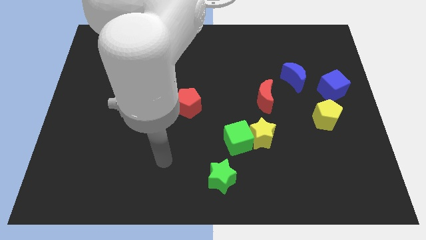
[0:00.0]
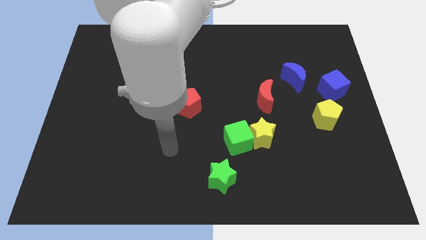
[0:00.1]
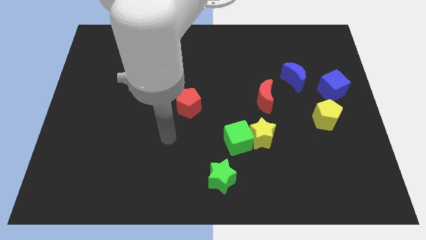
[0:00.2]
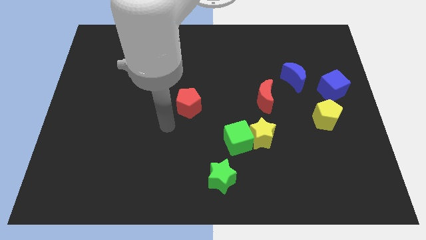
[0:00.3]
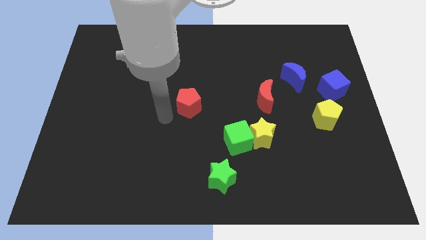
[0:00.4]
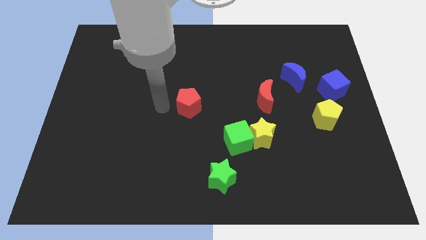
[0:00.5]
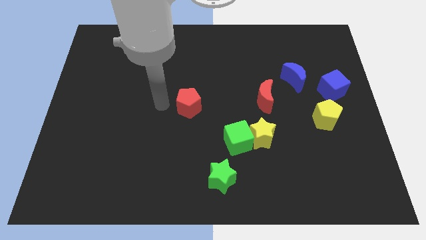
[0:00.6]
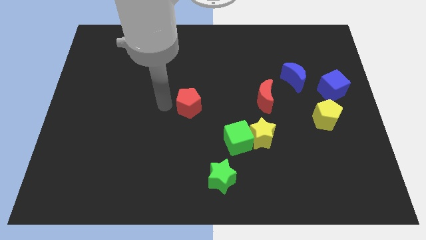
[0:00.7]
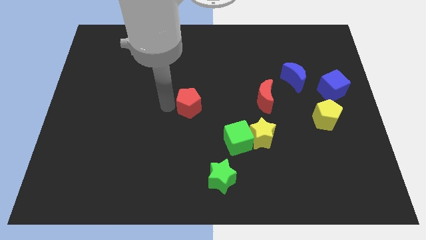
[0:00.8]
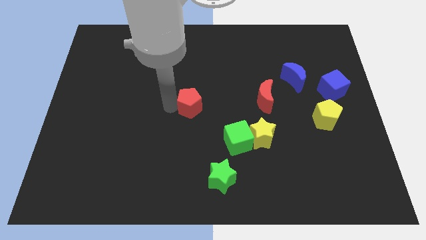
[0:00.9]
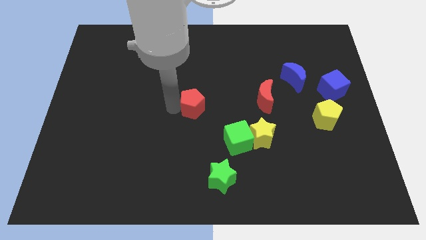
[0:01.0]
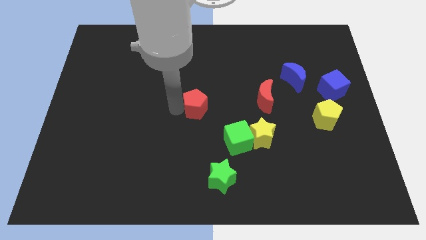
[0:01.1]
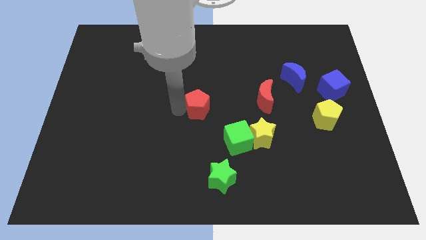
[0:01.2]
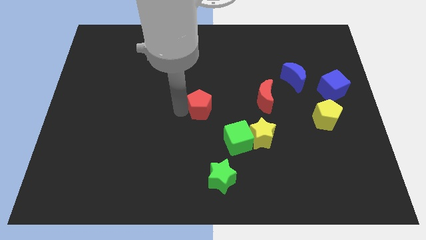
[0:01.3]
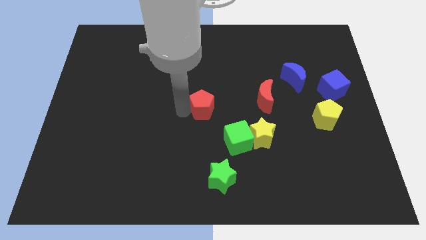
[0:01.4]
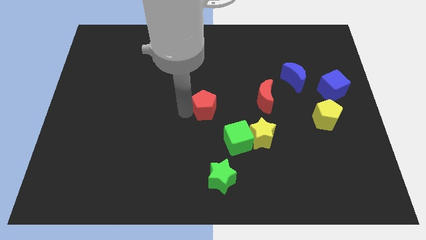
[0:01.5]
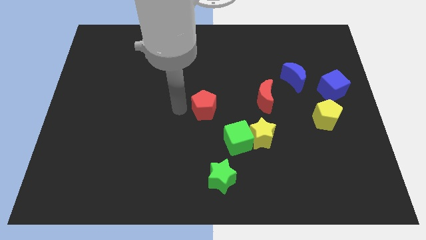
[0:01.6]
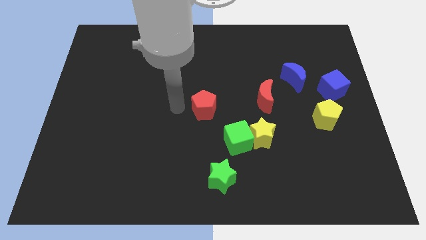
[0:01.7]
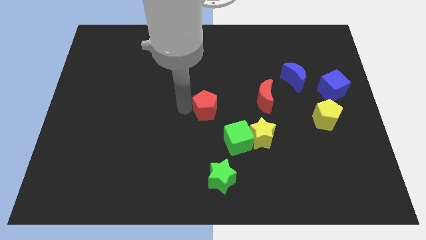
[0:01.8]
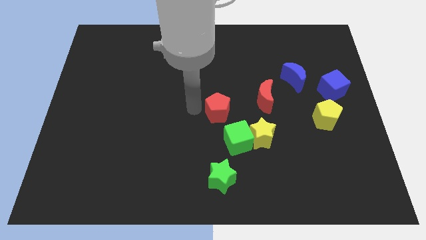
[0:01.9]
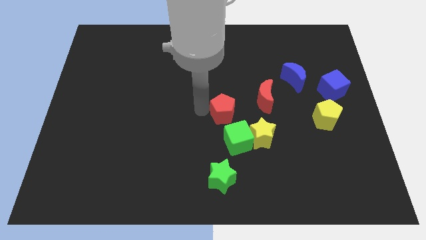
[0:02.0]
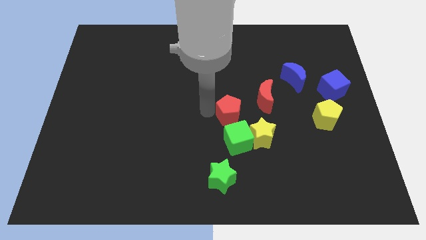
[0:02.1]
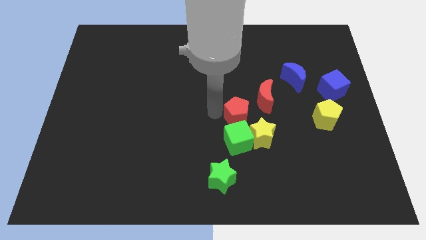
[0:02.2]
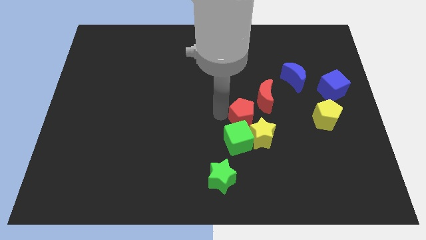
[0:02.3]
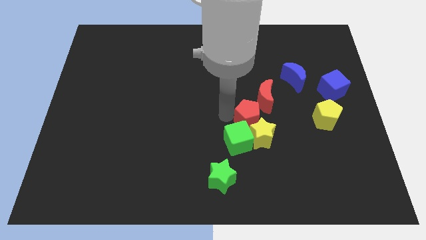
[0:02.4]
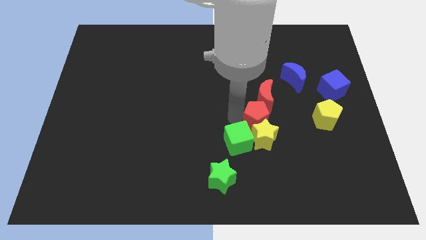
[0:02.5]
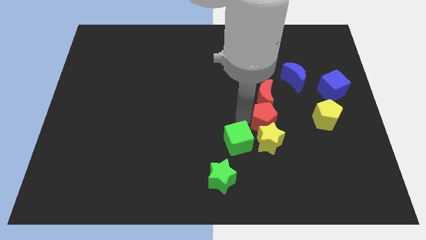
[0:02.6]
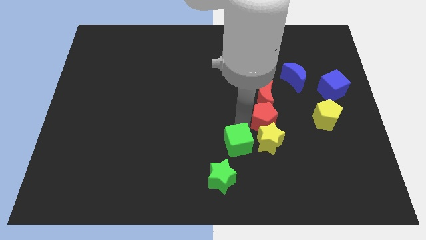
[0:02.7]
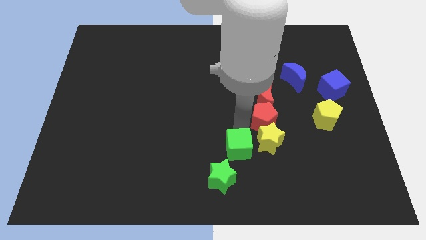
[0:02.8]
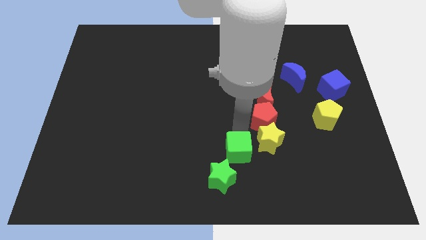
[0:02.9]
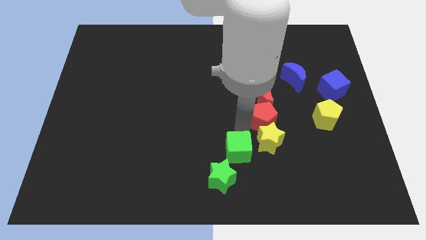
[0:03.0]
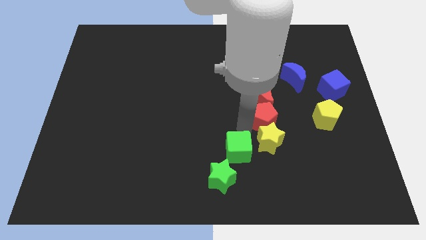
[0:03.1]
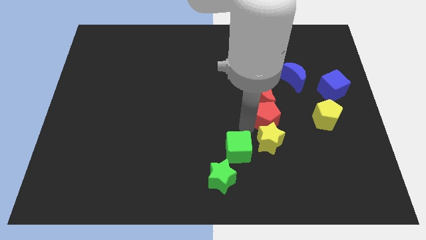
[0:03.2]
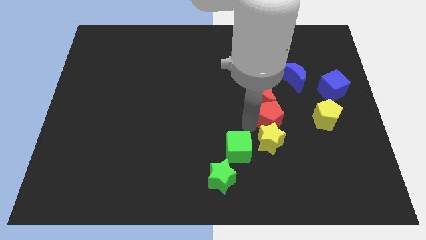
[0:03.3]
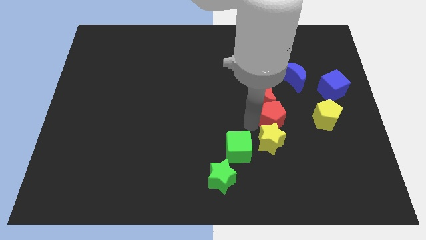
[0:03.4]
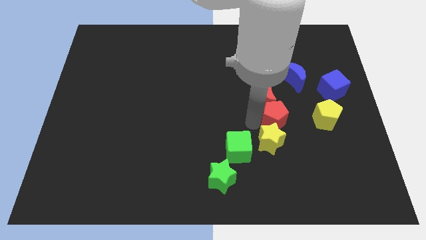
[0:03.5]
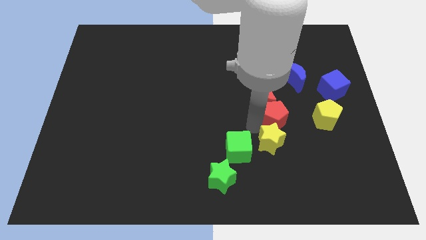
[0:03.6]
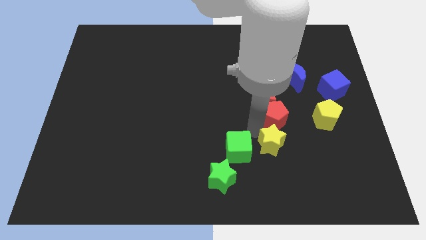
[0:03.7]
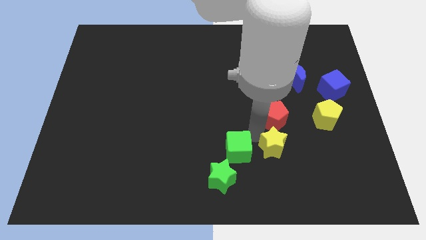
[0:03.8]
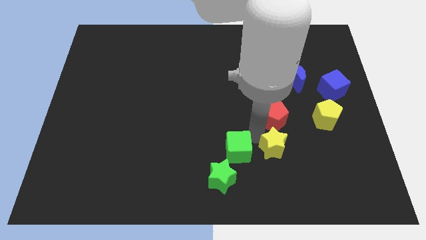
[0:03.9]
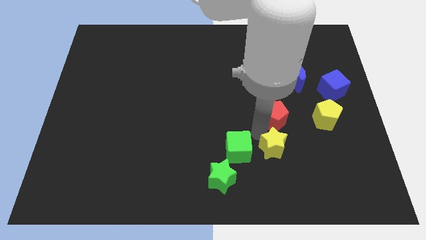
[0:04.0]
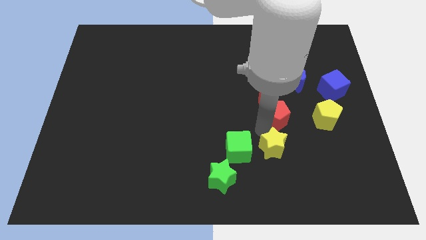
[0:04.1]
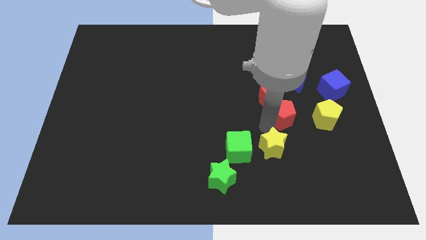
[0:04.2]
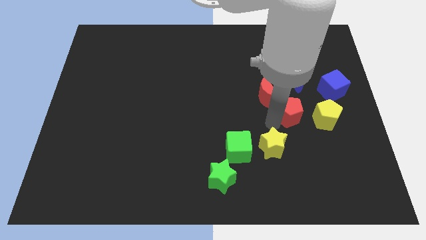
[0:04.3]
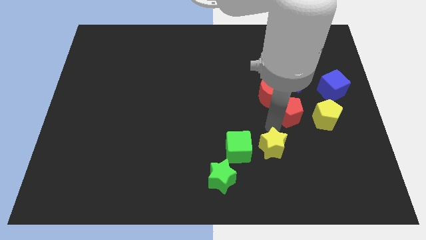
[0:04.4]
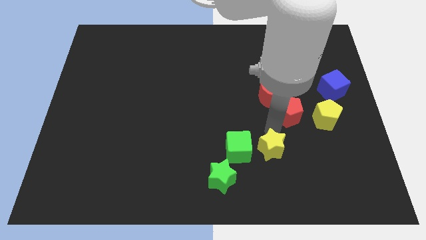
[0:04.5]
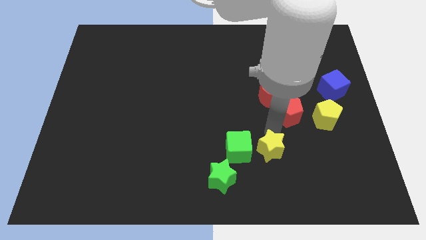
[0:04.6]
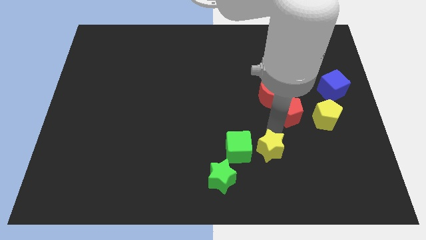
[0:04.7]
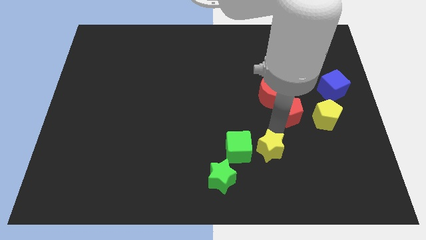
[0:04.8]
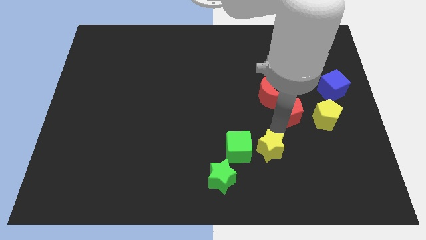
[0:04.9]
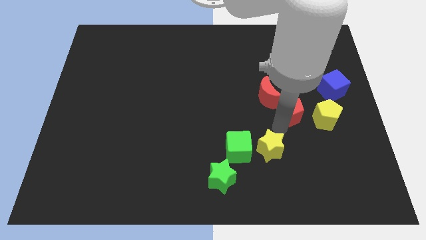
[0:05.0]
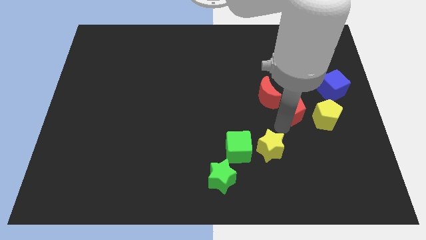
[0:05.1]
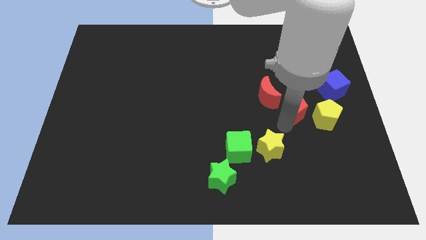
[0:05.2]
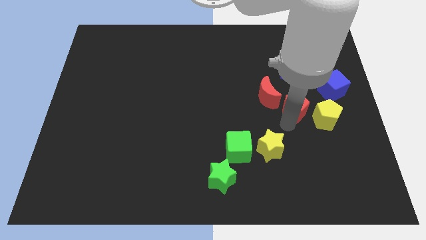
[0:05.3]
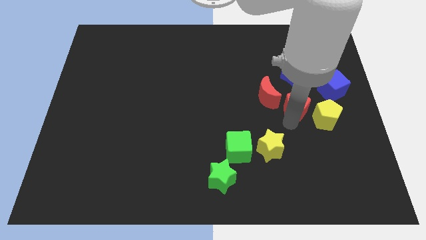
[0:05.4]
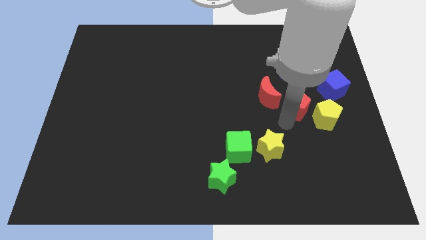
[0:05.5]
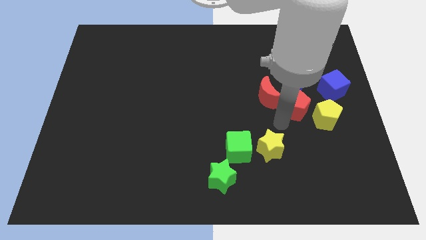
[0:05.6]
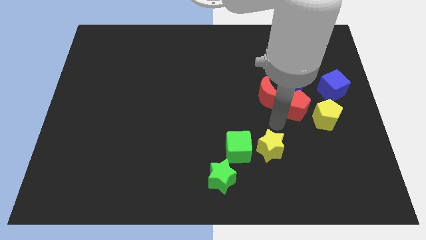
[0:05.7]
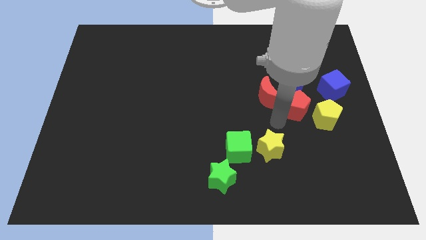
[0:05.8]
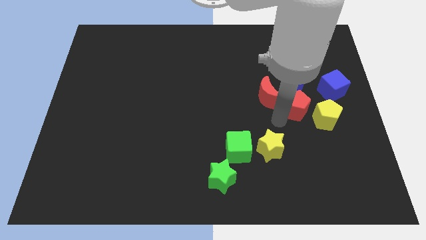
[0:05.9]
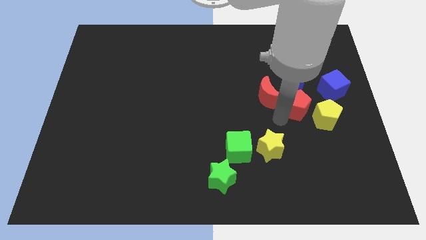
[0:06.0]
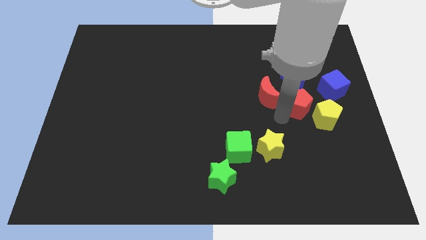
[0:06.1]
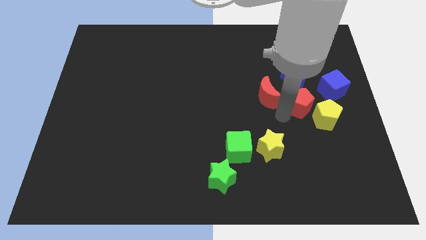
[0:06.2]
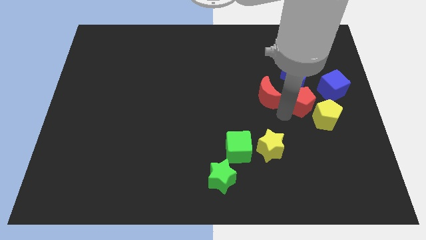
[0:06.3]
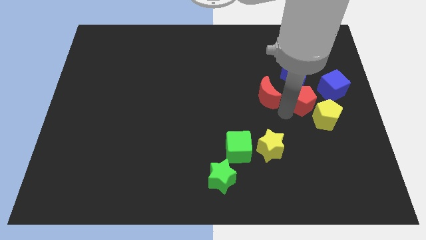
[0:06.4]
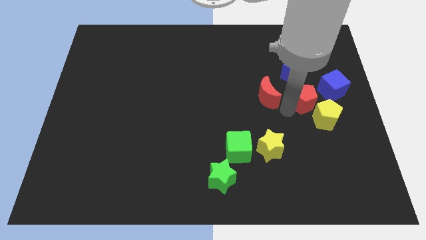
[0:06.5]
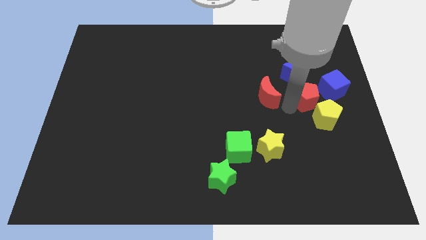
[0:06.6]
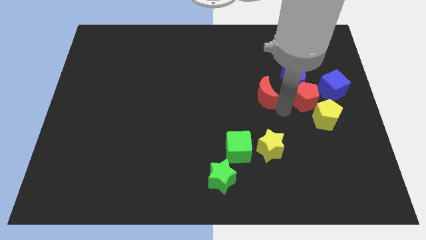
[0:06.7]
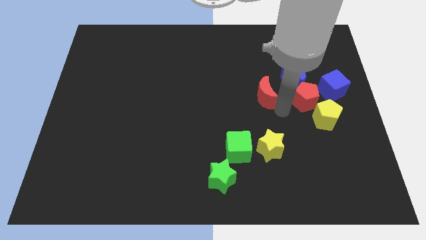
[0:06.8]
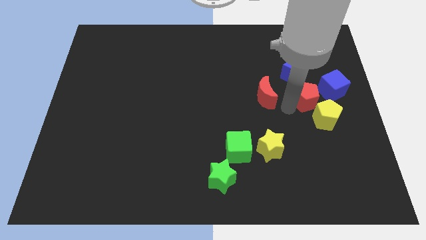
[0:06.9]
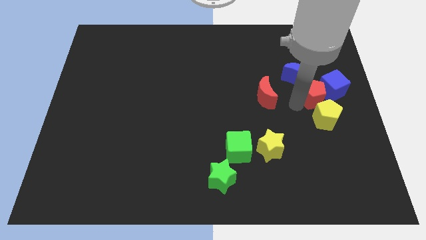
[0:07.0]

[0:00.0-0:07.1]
put the red pentagon next to the blue cube

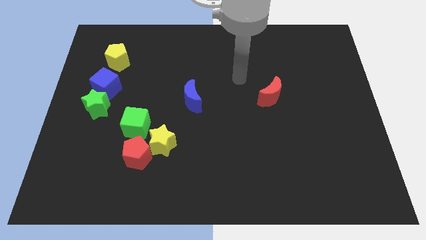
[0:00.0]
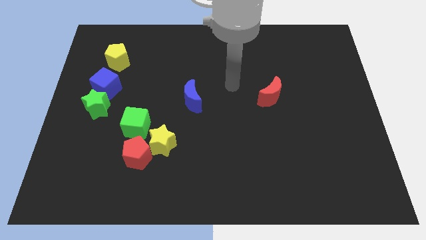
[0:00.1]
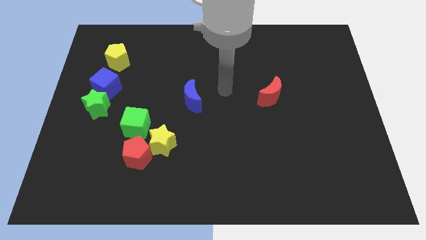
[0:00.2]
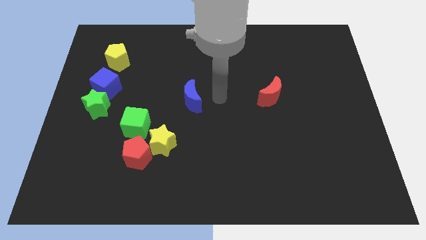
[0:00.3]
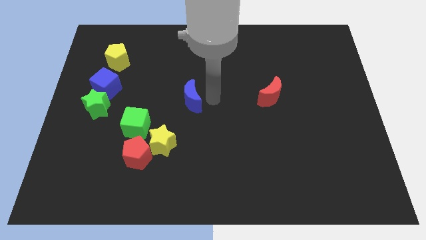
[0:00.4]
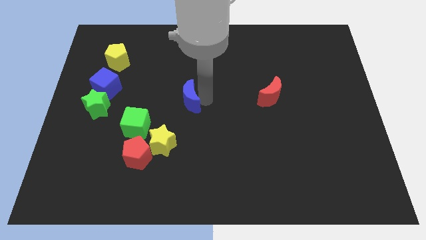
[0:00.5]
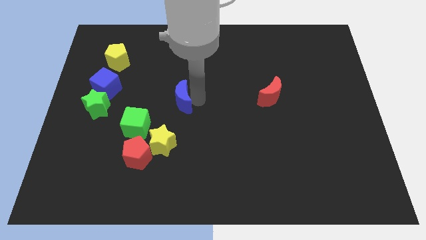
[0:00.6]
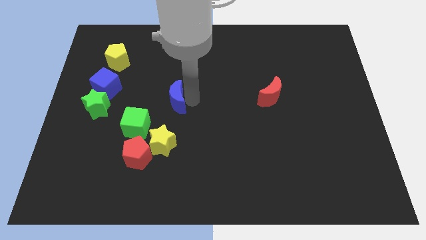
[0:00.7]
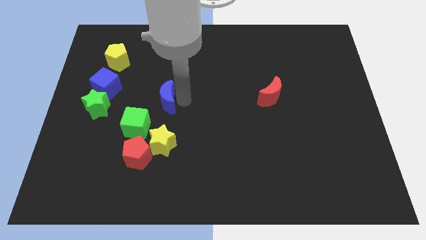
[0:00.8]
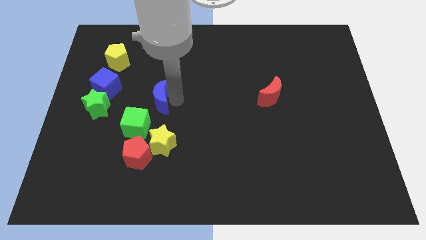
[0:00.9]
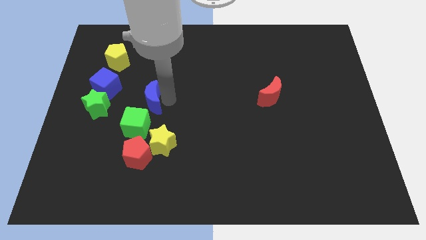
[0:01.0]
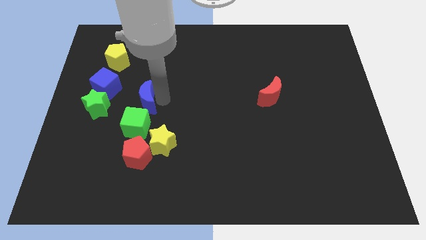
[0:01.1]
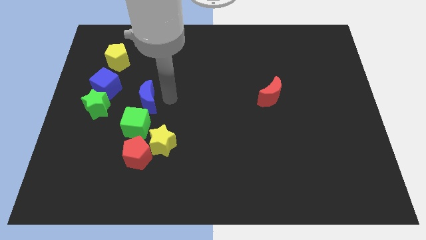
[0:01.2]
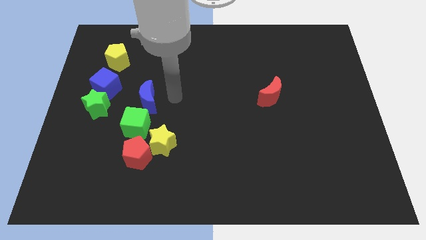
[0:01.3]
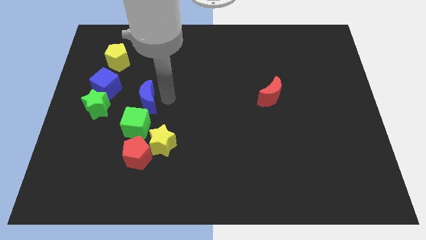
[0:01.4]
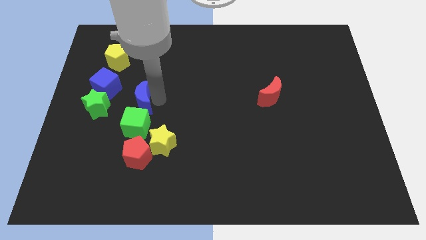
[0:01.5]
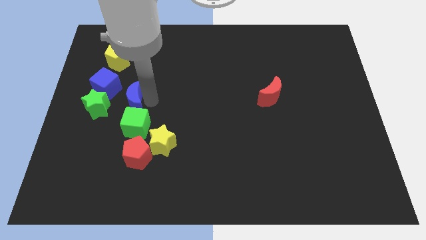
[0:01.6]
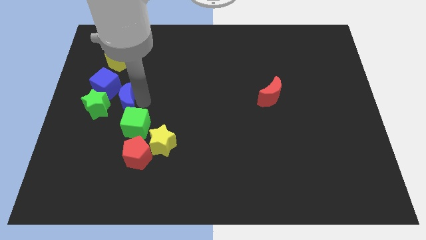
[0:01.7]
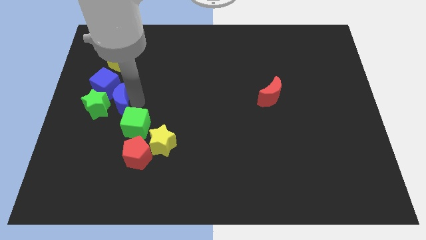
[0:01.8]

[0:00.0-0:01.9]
slide the blue moon next to the green star
